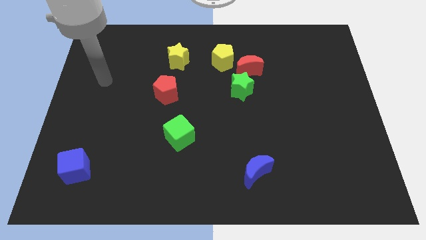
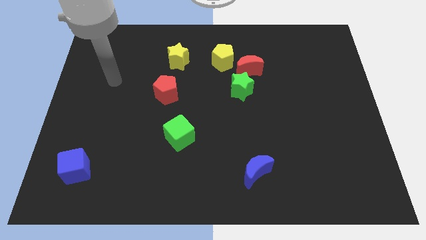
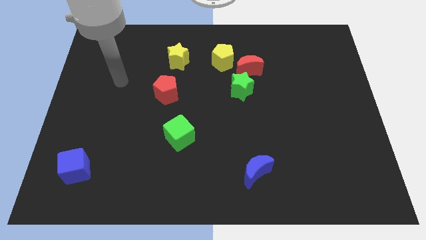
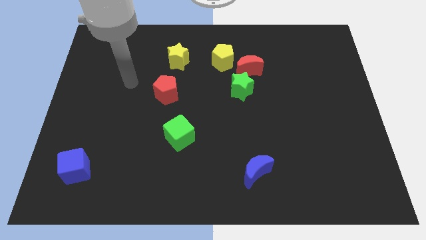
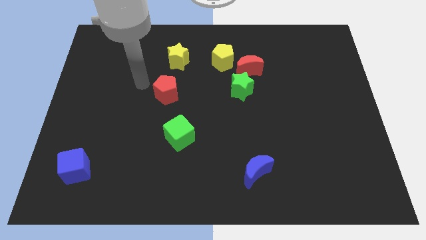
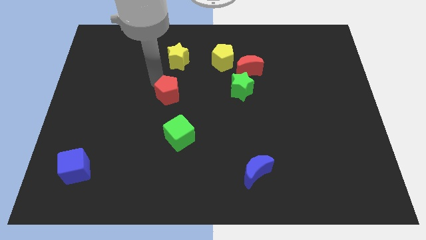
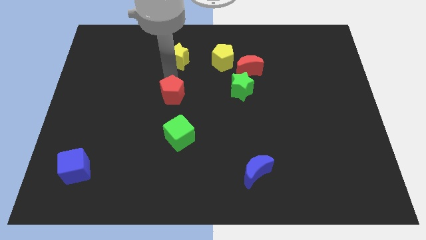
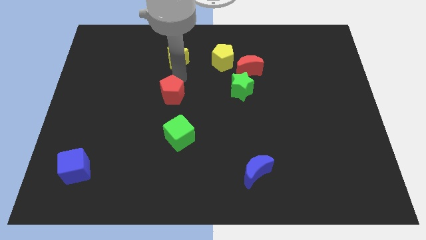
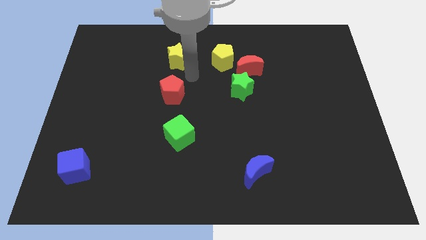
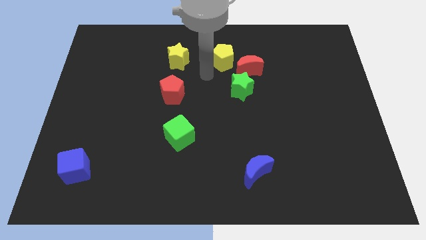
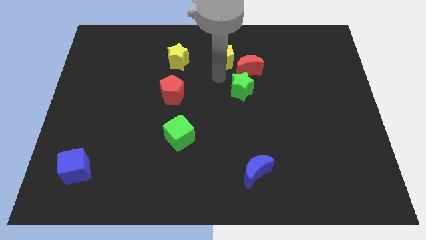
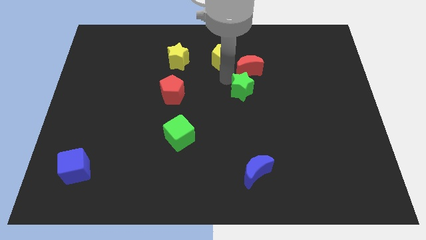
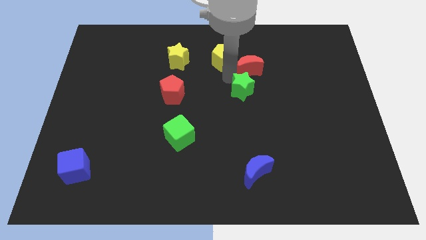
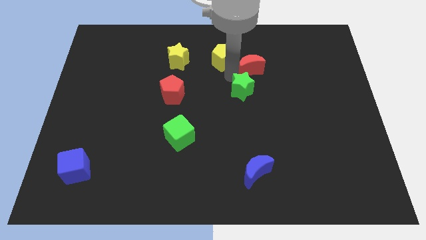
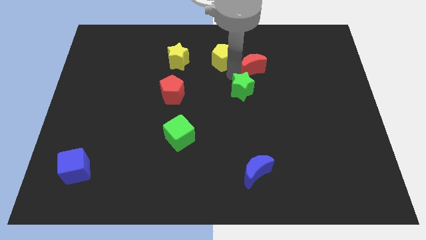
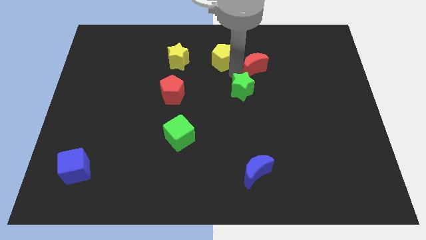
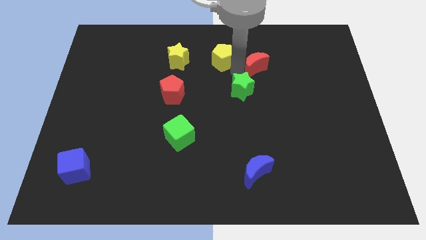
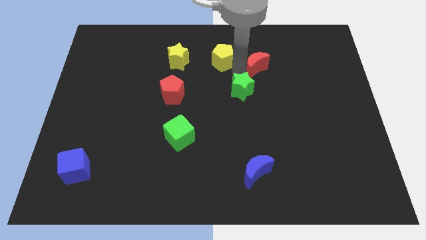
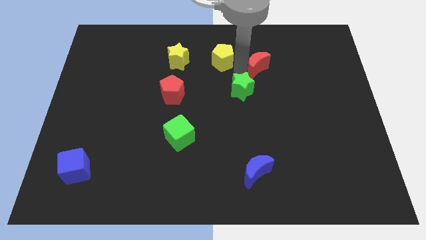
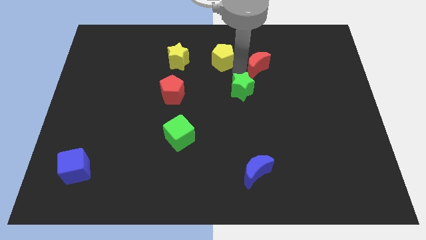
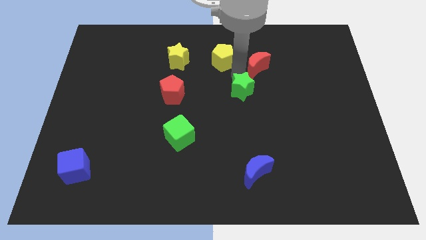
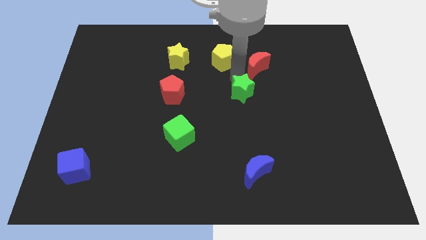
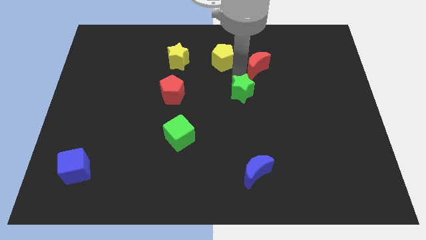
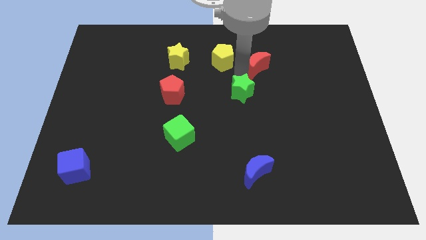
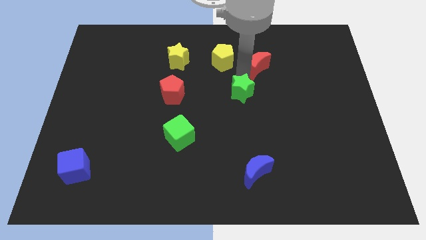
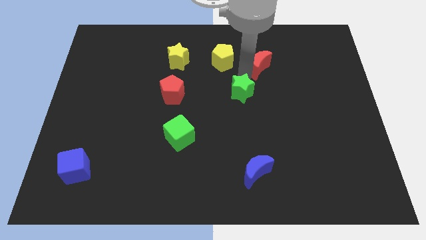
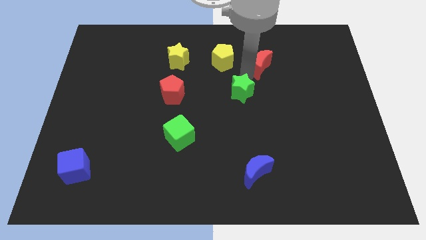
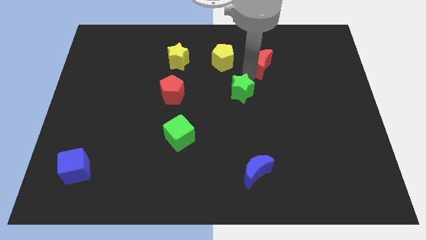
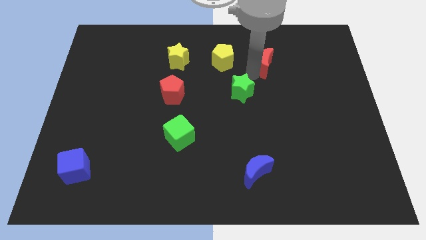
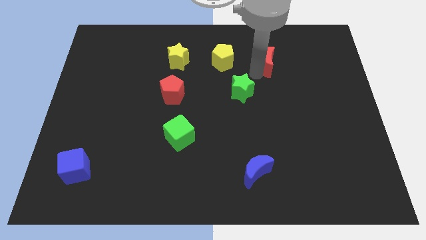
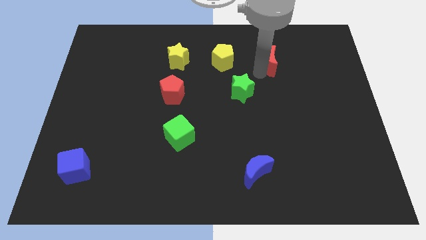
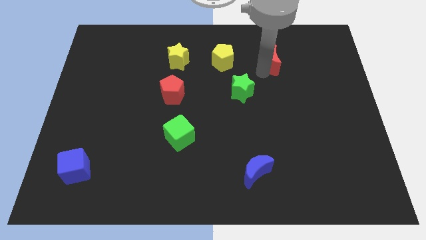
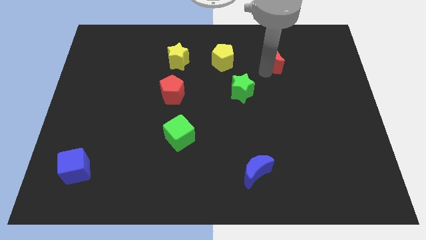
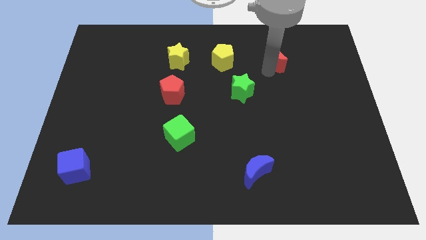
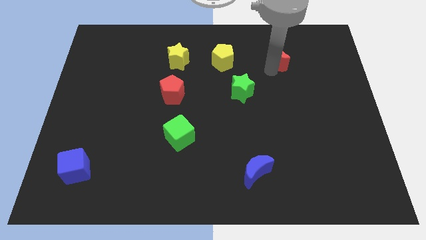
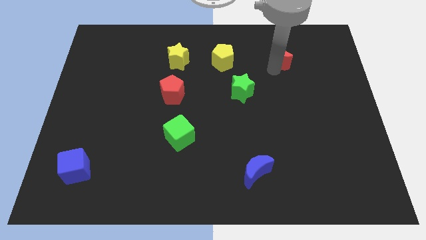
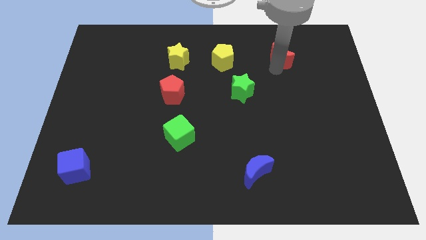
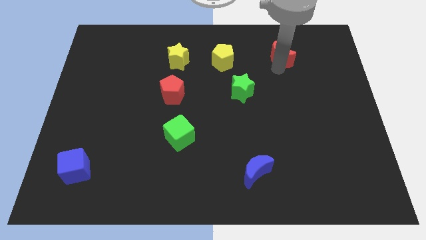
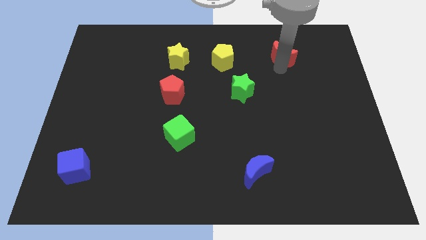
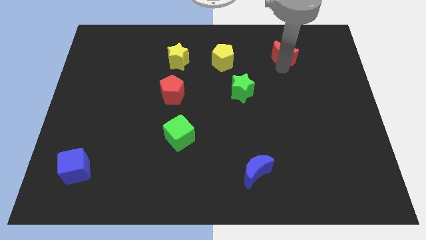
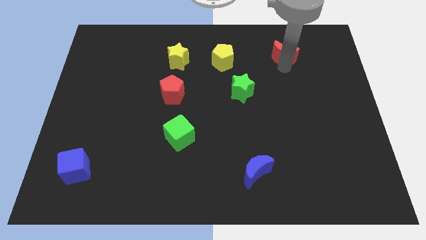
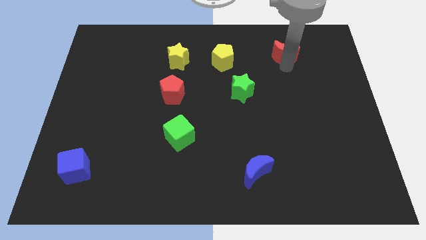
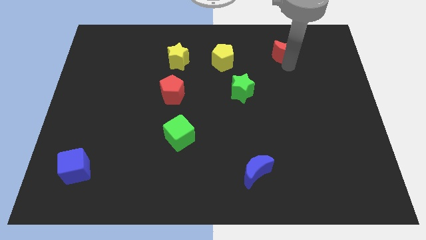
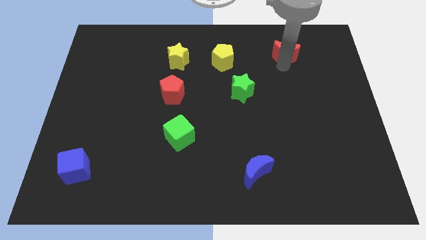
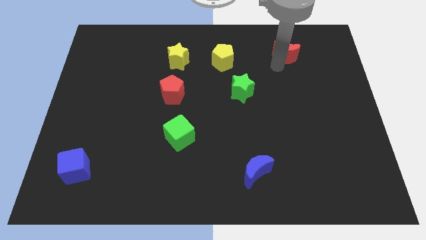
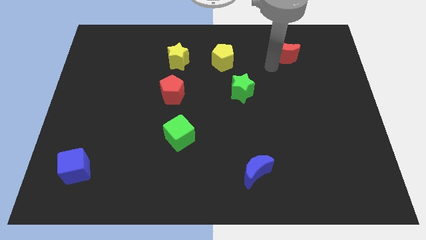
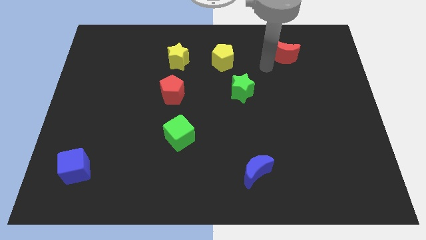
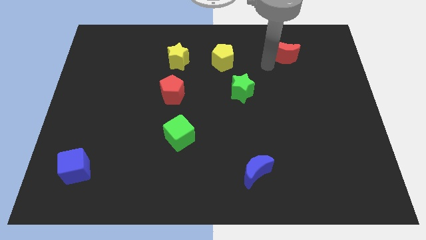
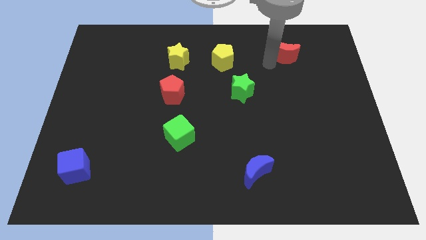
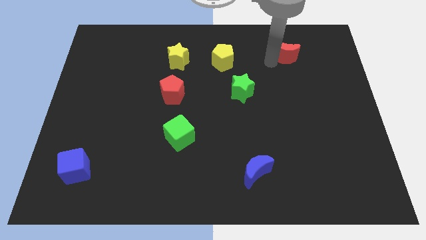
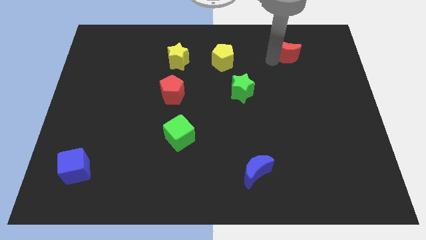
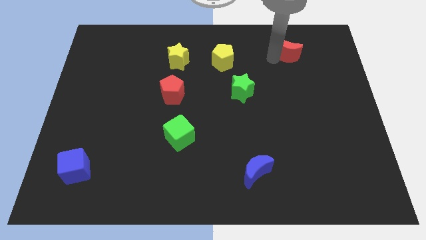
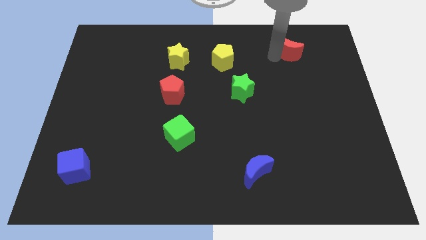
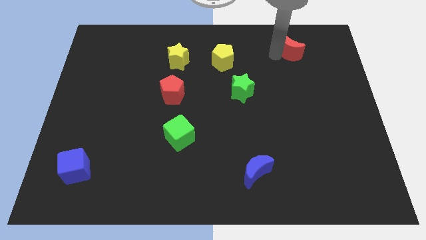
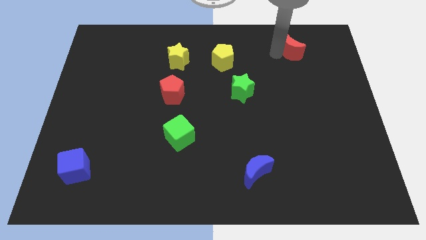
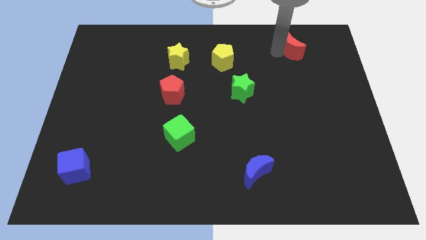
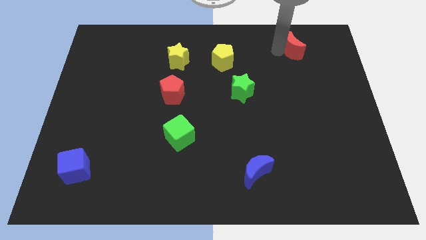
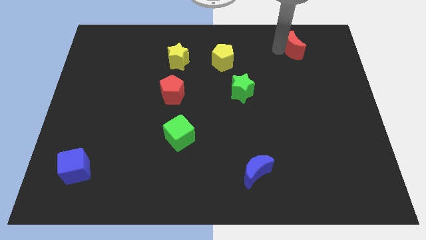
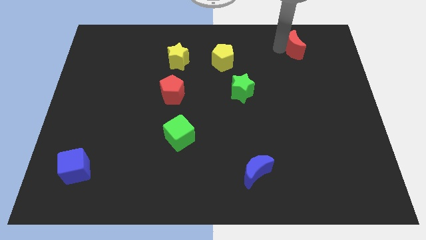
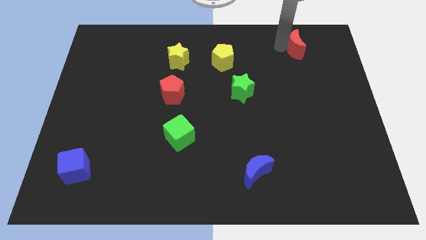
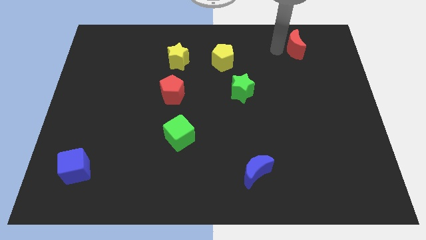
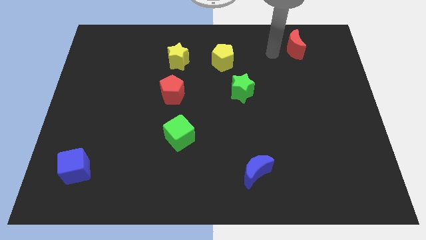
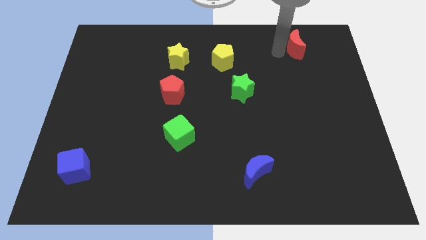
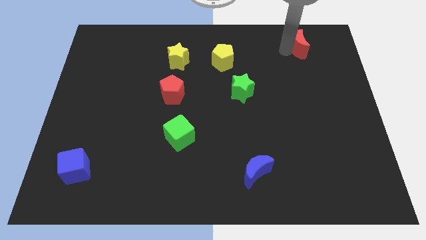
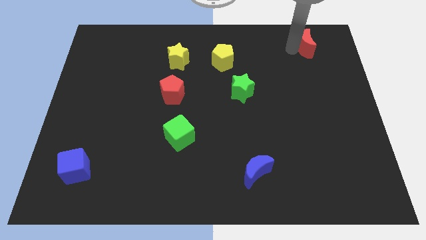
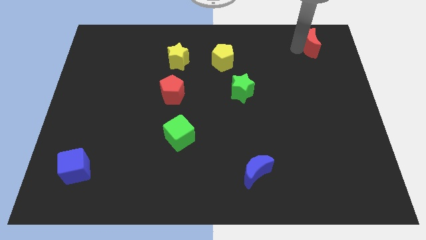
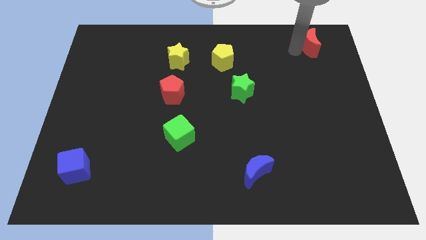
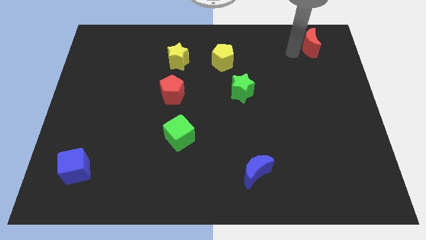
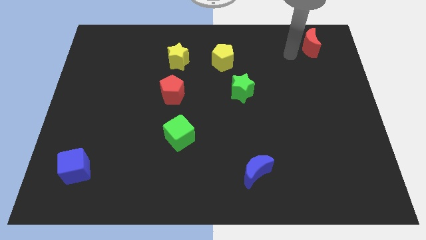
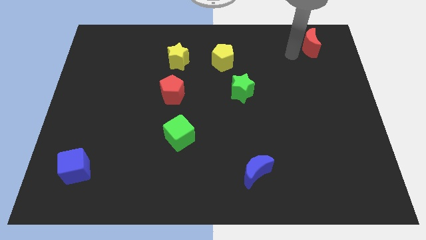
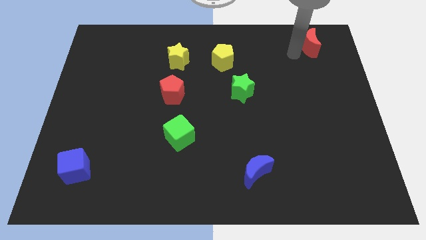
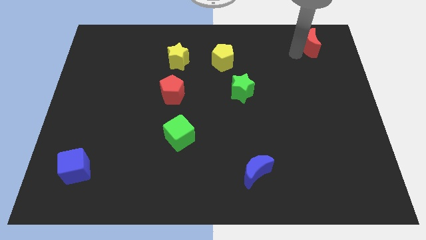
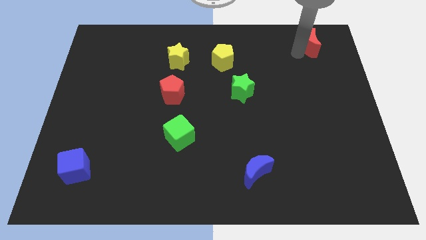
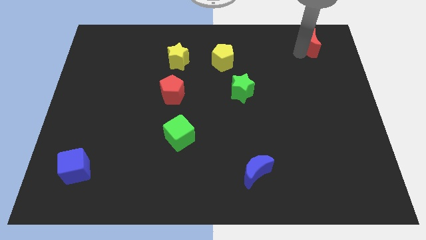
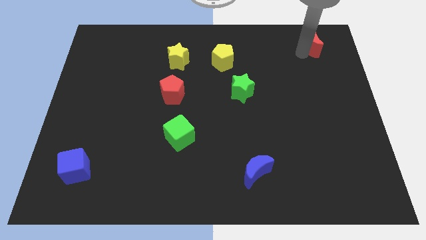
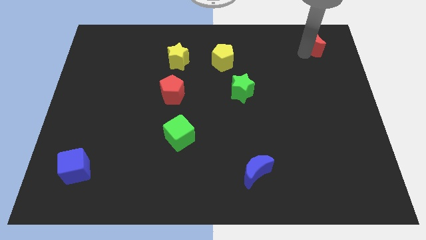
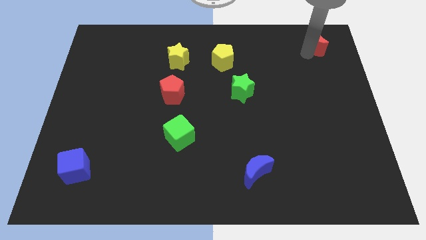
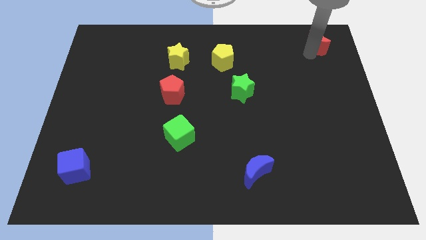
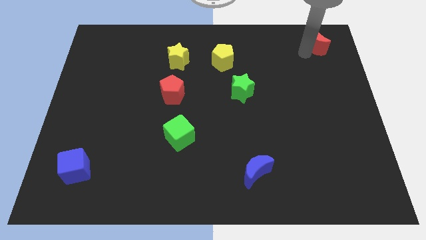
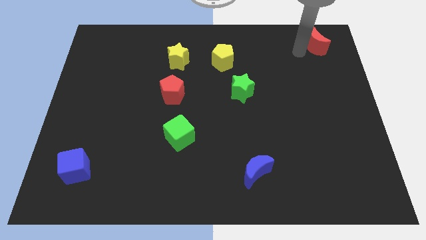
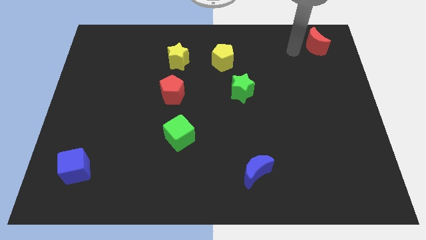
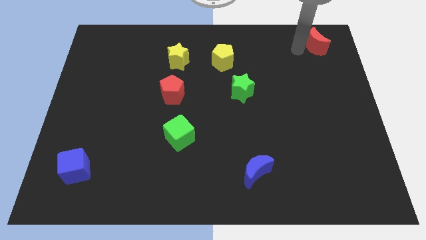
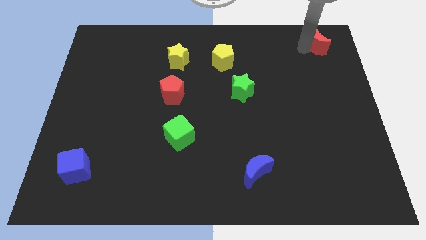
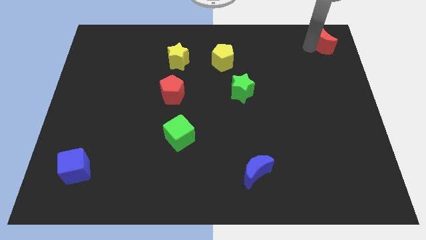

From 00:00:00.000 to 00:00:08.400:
push the red moon to the top right
